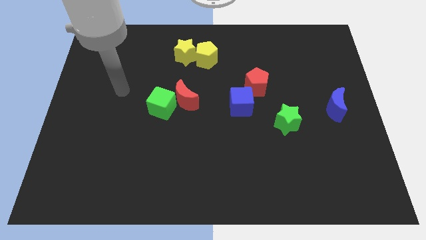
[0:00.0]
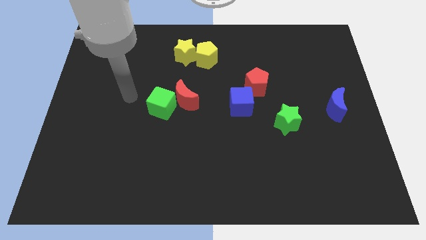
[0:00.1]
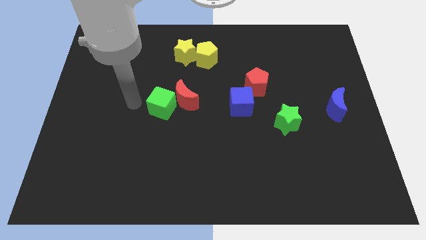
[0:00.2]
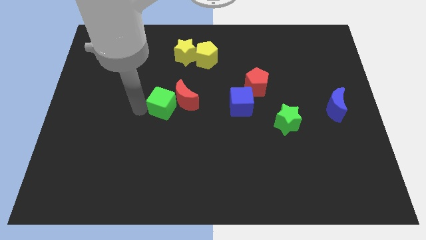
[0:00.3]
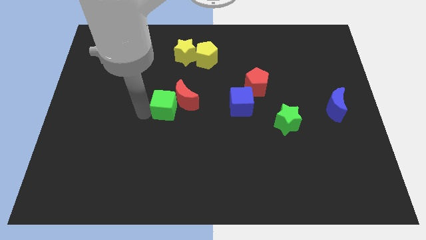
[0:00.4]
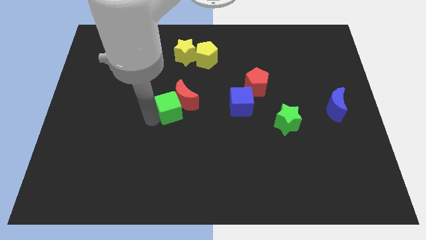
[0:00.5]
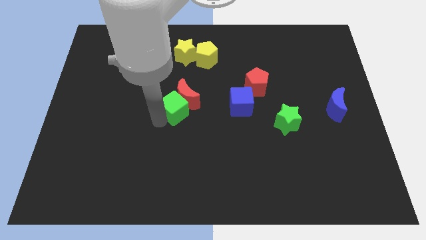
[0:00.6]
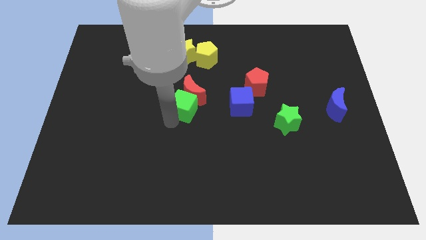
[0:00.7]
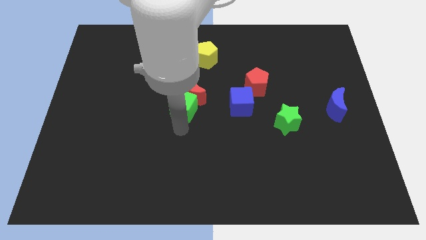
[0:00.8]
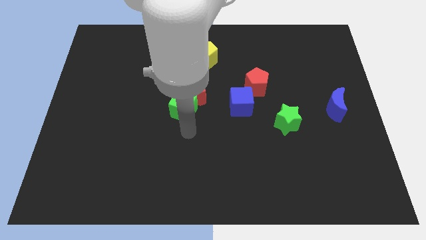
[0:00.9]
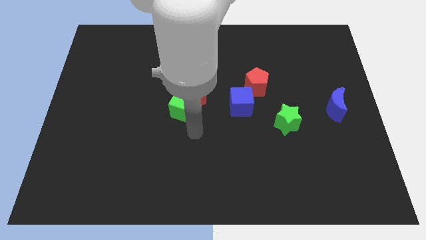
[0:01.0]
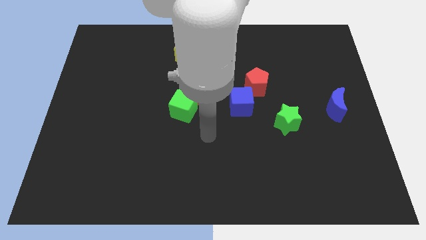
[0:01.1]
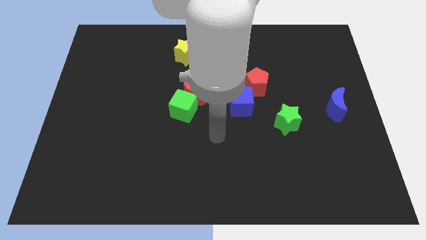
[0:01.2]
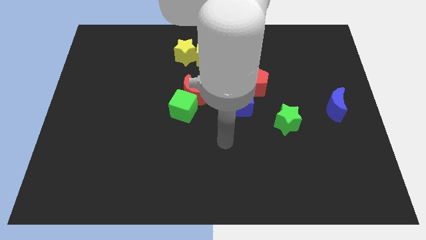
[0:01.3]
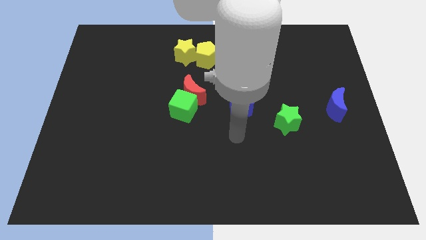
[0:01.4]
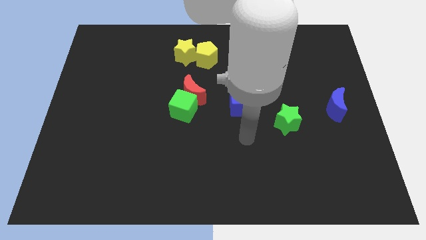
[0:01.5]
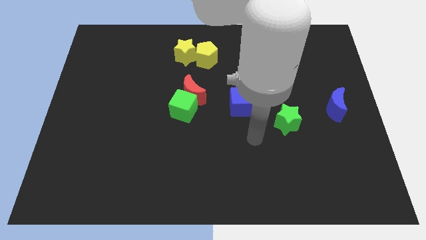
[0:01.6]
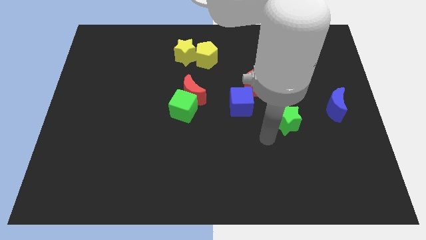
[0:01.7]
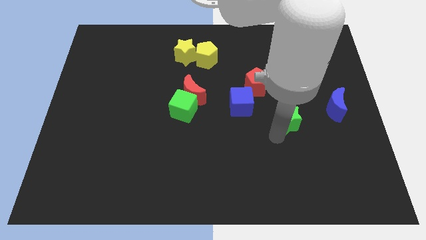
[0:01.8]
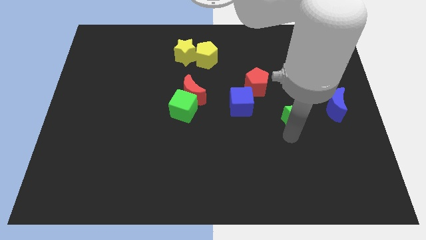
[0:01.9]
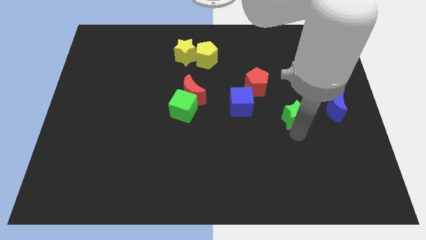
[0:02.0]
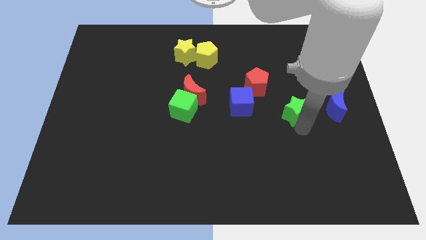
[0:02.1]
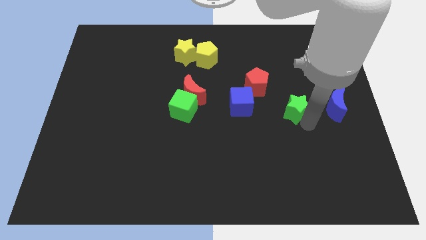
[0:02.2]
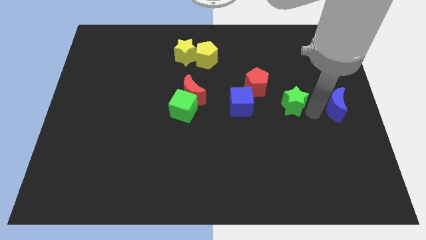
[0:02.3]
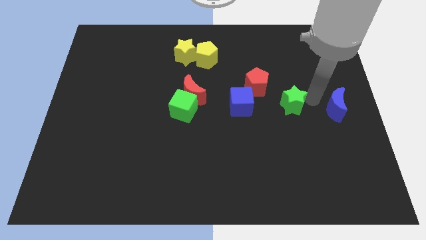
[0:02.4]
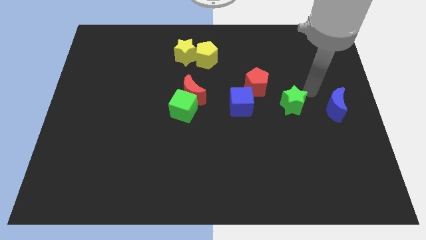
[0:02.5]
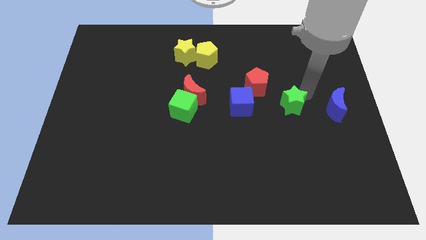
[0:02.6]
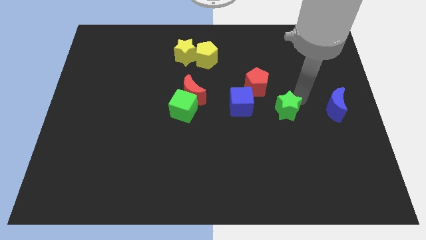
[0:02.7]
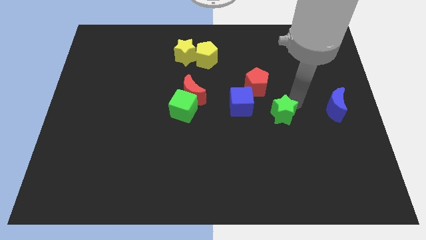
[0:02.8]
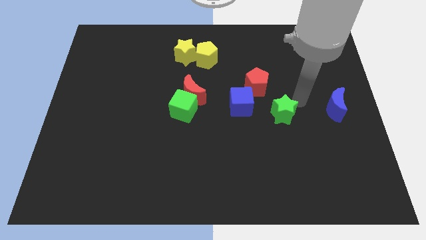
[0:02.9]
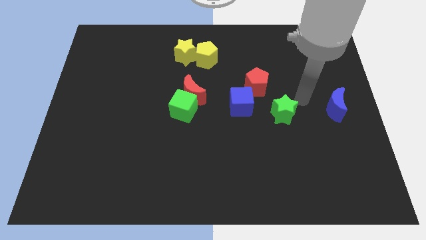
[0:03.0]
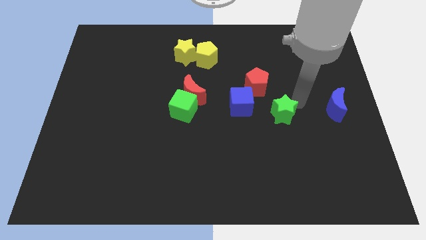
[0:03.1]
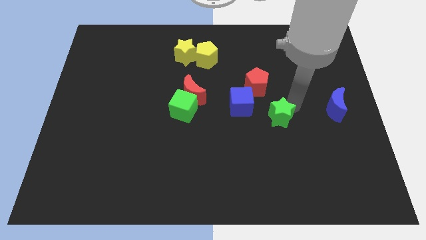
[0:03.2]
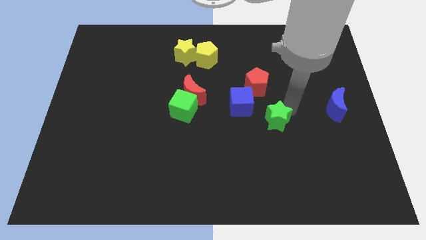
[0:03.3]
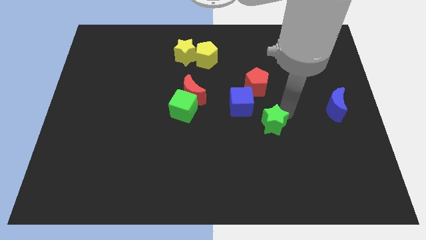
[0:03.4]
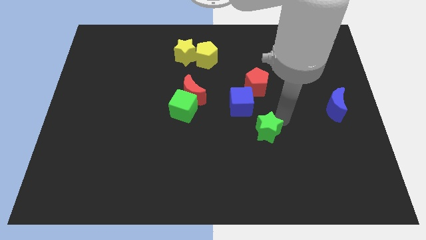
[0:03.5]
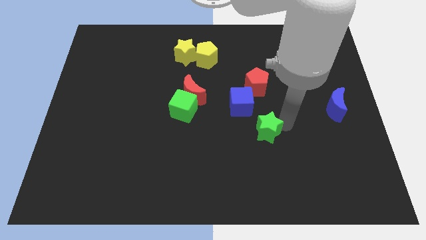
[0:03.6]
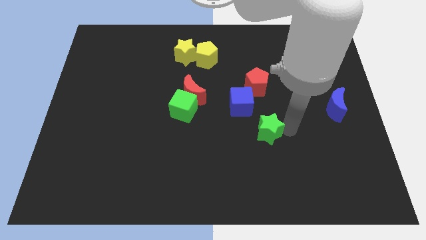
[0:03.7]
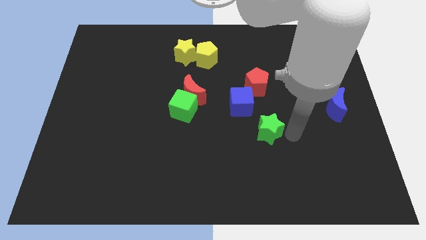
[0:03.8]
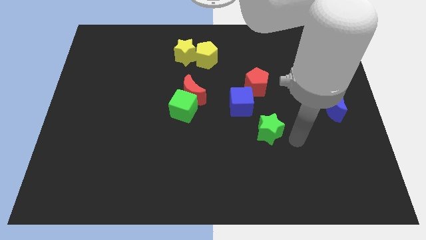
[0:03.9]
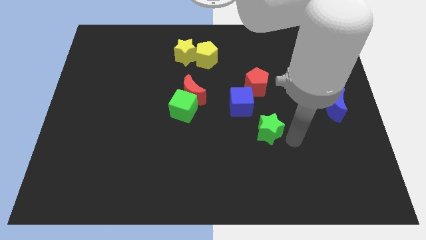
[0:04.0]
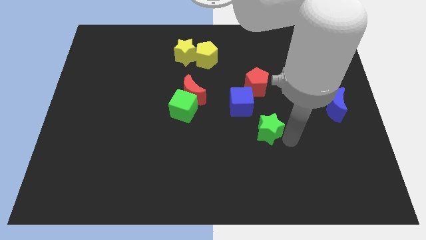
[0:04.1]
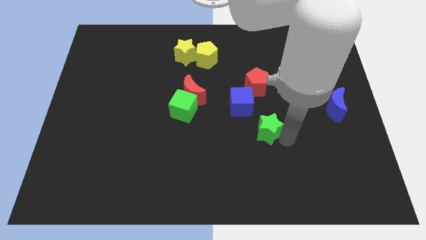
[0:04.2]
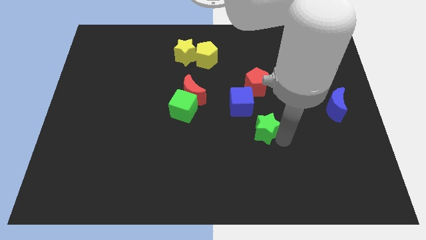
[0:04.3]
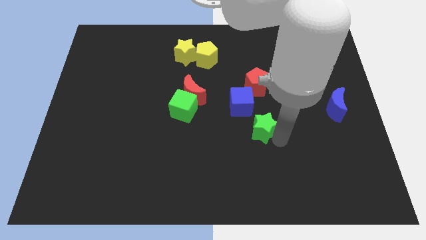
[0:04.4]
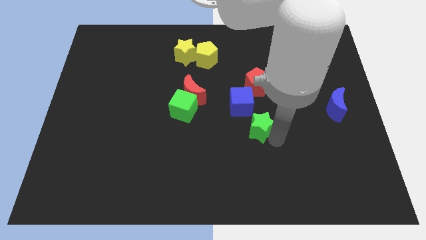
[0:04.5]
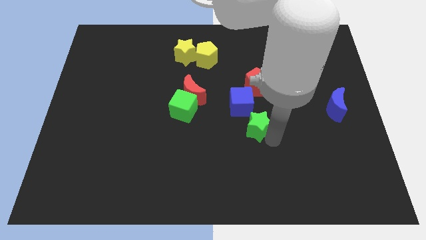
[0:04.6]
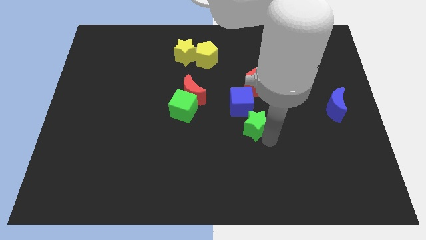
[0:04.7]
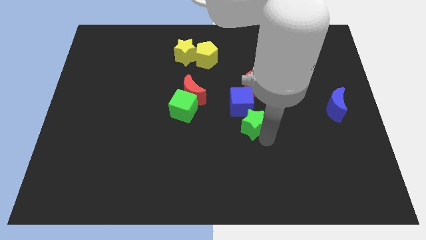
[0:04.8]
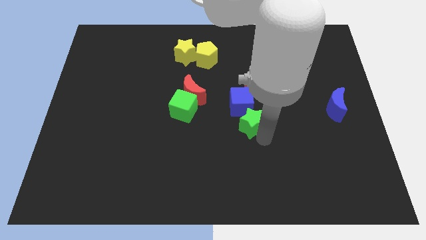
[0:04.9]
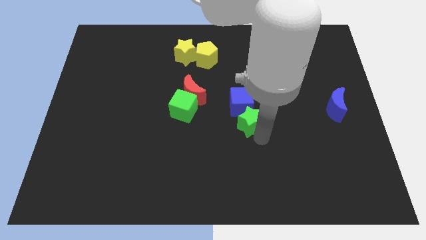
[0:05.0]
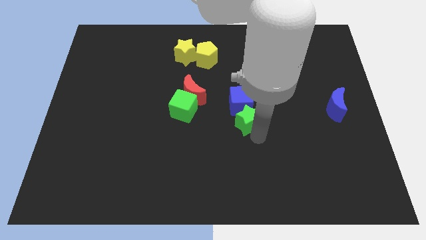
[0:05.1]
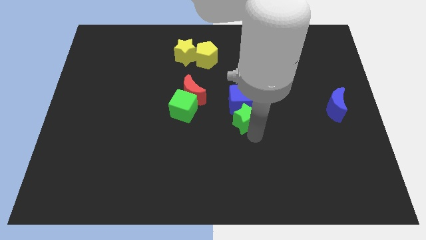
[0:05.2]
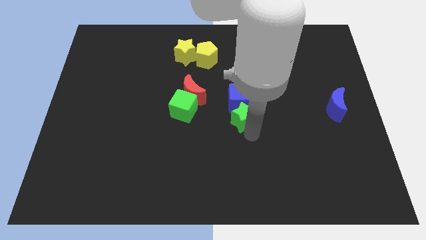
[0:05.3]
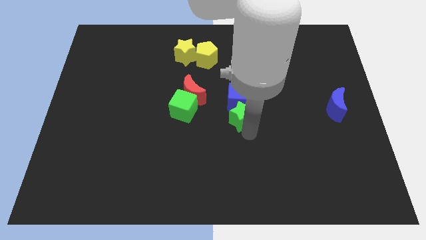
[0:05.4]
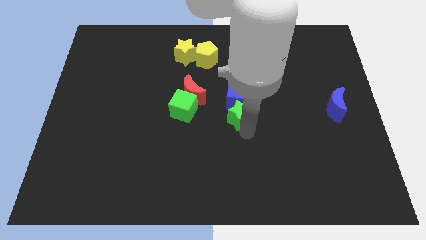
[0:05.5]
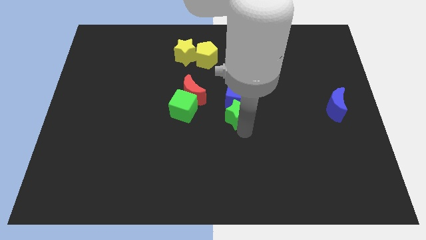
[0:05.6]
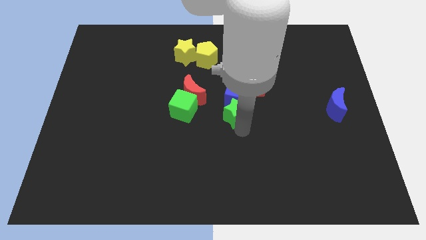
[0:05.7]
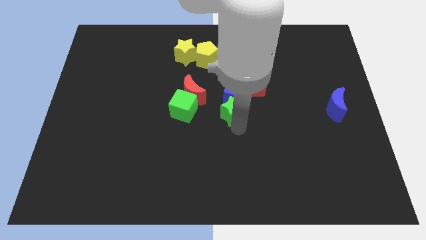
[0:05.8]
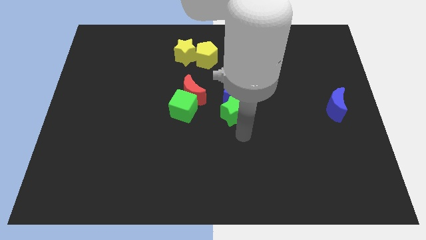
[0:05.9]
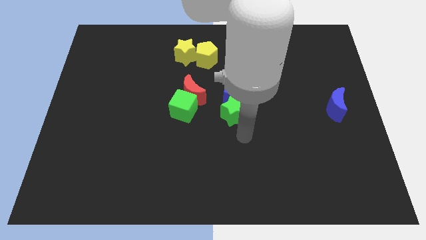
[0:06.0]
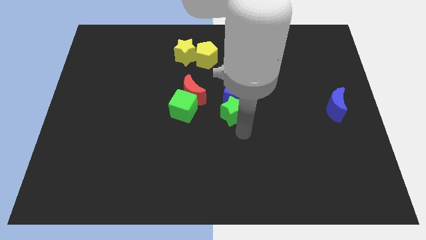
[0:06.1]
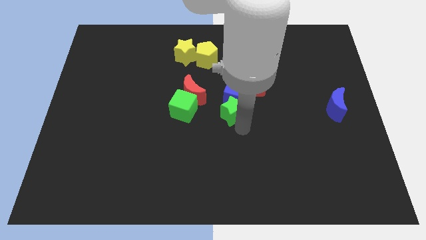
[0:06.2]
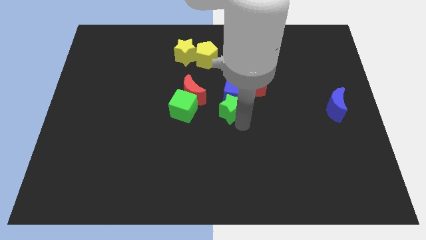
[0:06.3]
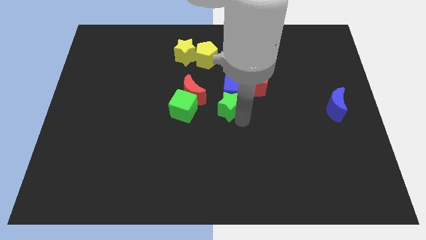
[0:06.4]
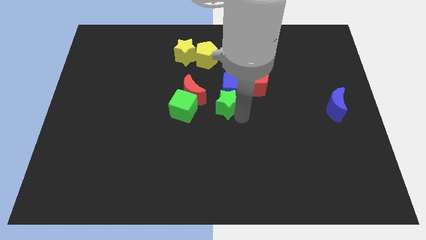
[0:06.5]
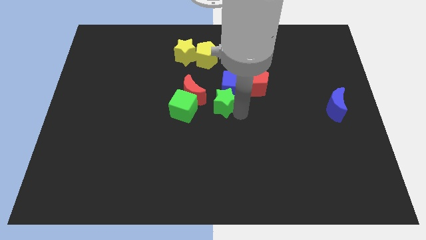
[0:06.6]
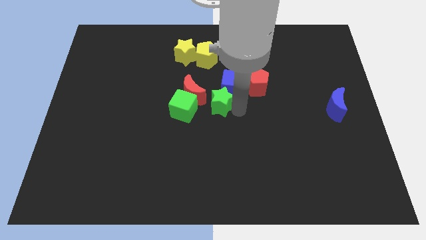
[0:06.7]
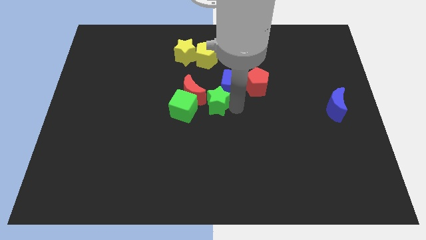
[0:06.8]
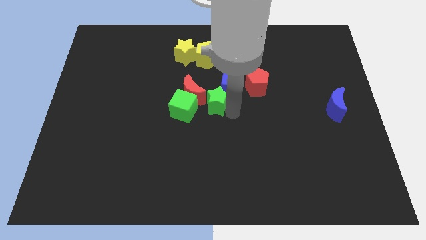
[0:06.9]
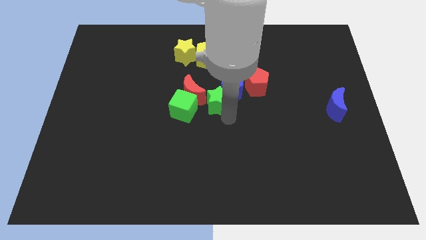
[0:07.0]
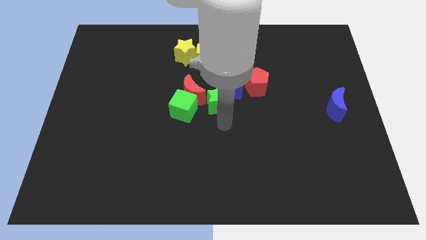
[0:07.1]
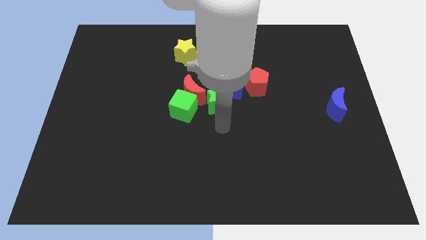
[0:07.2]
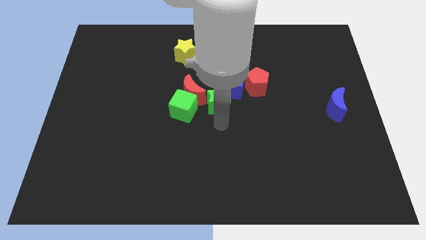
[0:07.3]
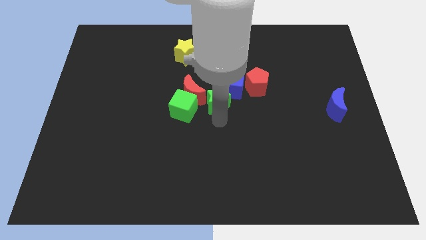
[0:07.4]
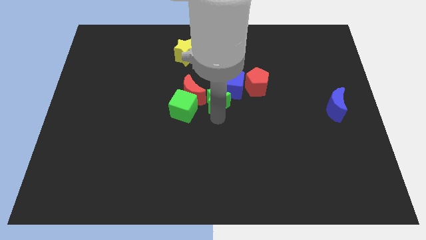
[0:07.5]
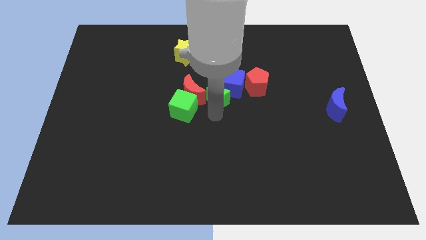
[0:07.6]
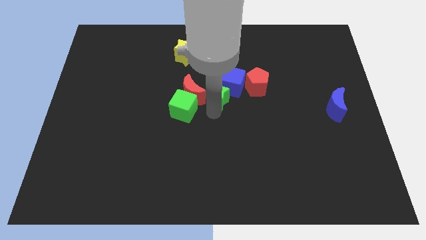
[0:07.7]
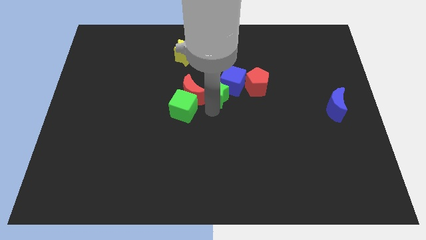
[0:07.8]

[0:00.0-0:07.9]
slide the green star to the top right of the red moon
